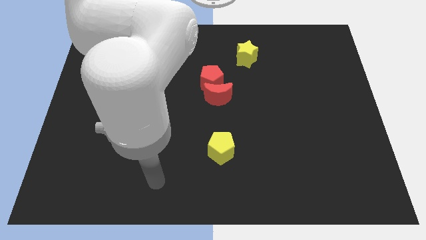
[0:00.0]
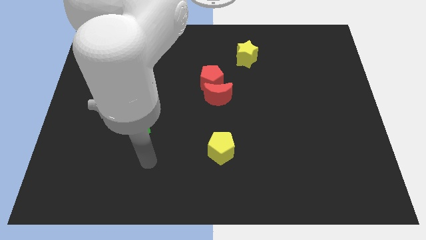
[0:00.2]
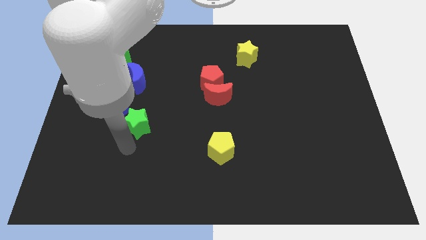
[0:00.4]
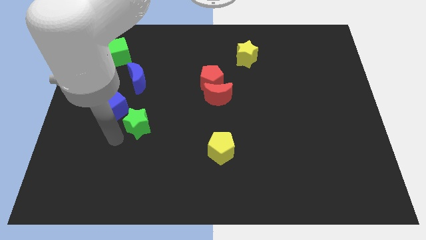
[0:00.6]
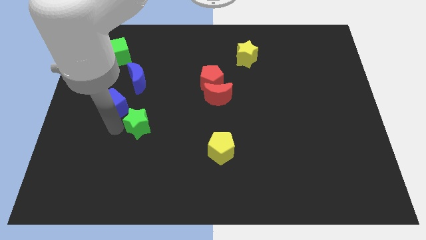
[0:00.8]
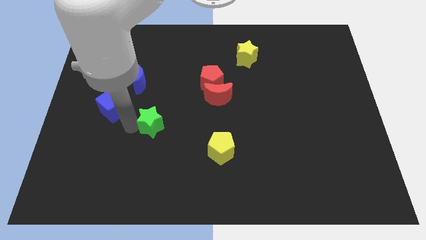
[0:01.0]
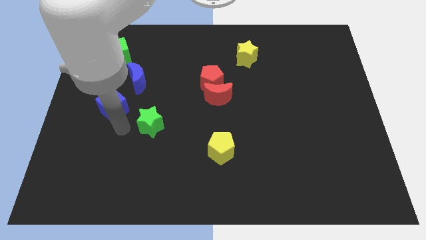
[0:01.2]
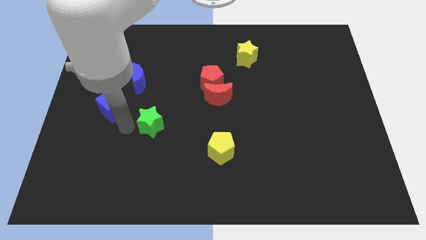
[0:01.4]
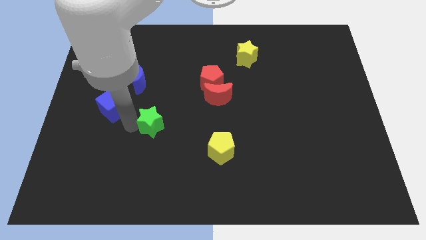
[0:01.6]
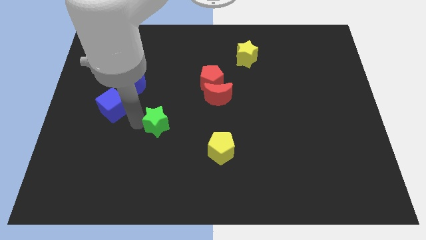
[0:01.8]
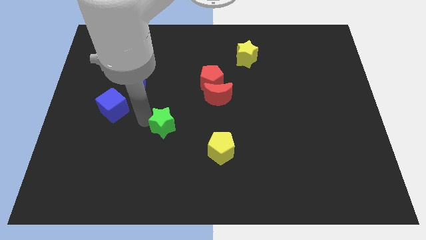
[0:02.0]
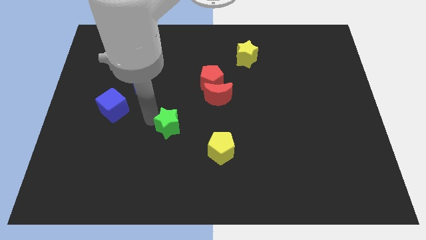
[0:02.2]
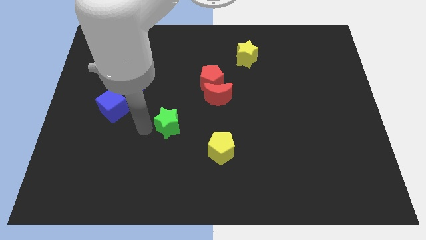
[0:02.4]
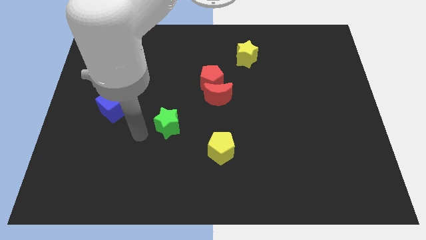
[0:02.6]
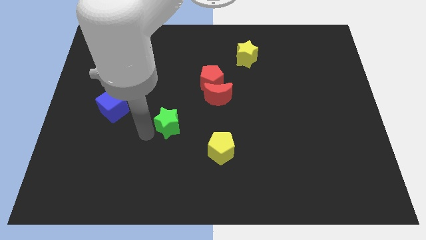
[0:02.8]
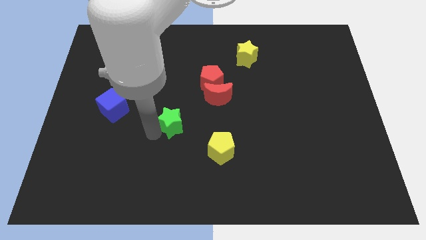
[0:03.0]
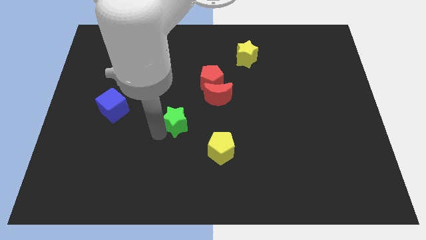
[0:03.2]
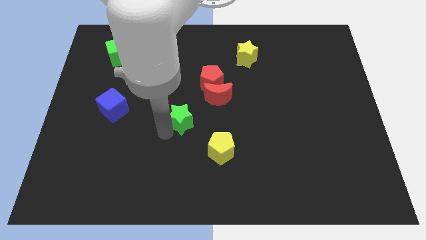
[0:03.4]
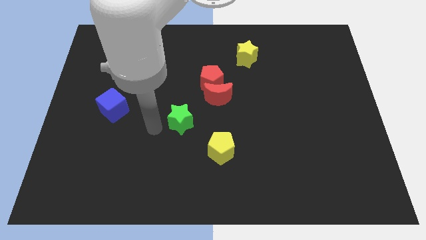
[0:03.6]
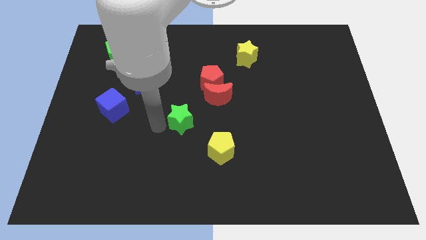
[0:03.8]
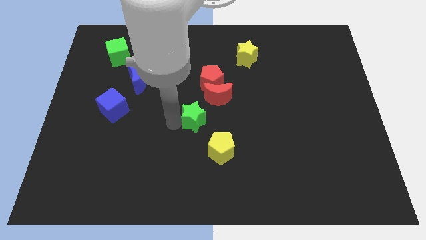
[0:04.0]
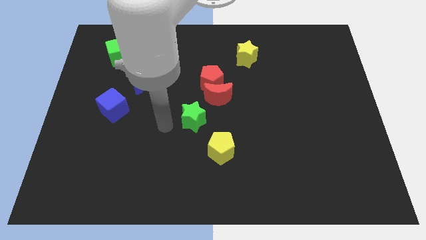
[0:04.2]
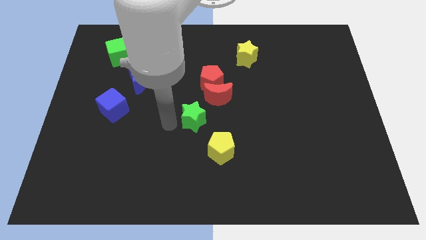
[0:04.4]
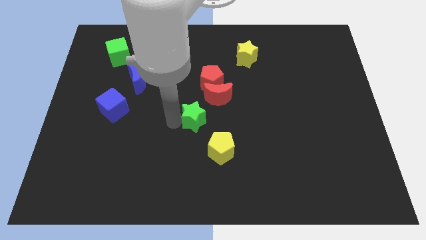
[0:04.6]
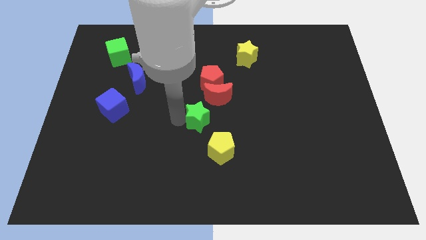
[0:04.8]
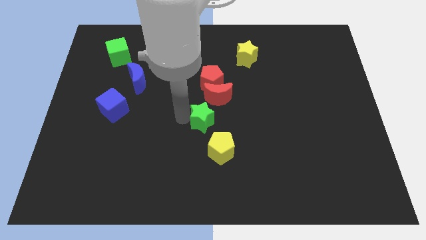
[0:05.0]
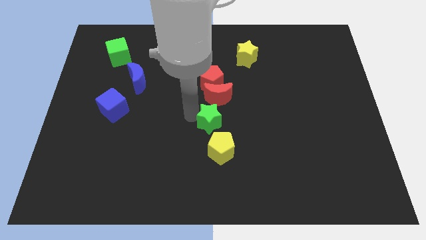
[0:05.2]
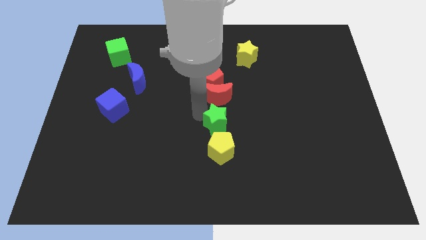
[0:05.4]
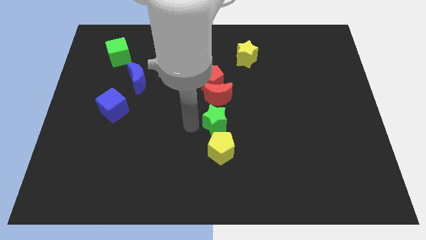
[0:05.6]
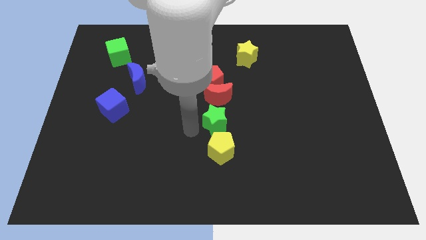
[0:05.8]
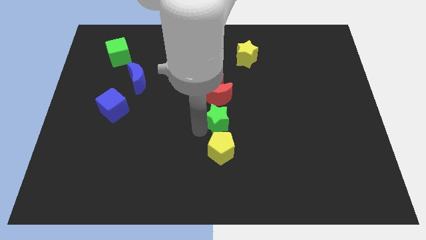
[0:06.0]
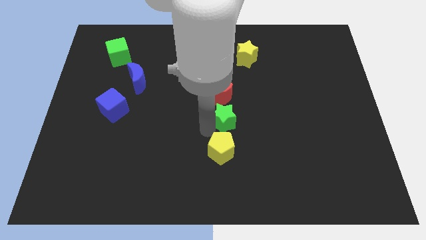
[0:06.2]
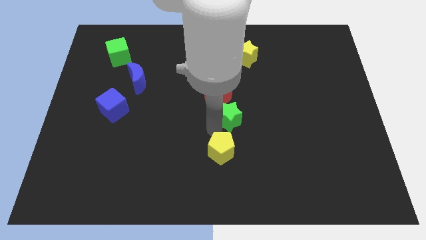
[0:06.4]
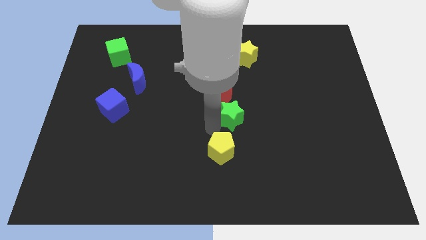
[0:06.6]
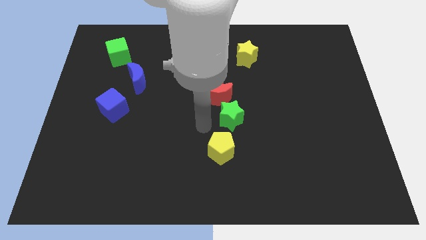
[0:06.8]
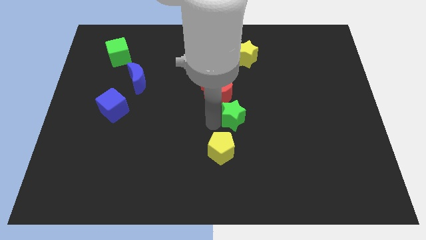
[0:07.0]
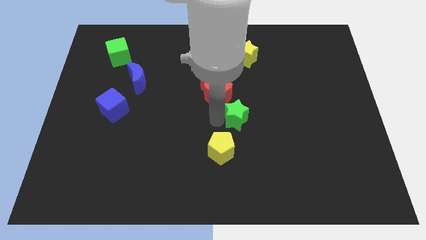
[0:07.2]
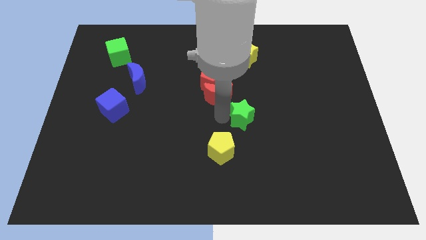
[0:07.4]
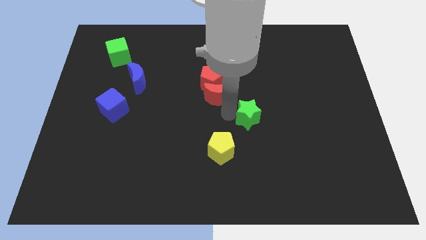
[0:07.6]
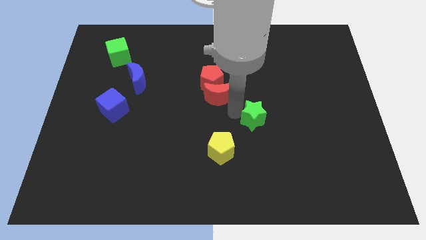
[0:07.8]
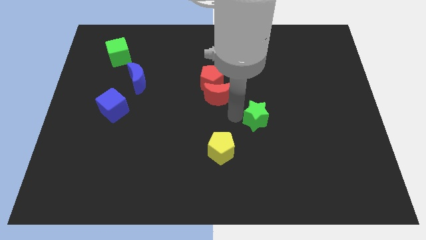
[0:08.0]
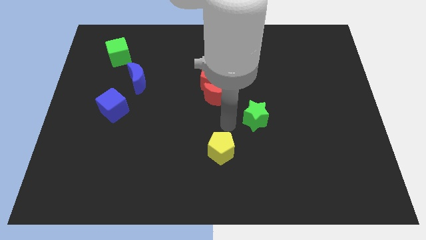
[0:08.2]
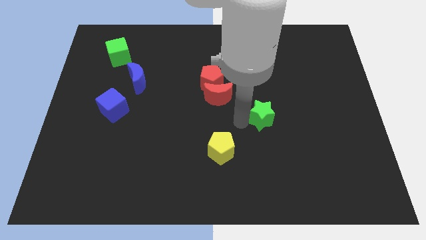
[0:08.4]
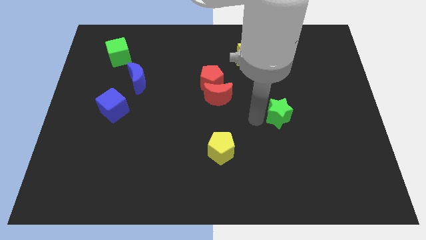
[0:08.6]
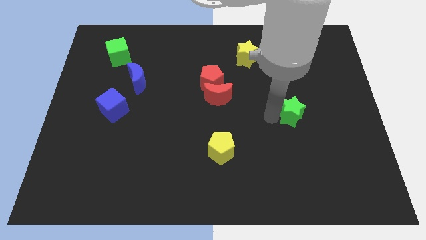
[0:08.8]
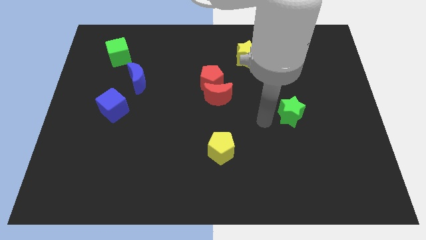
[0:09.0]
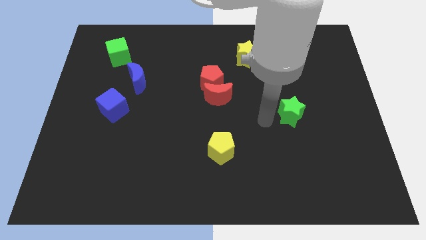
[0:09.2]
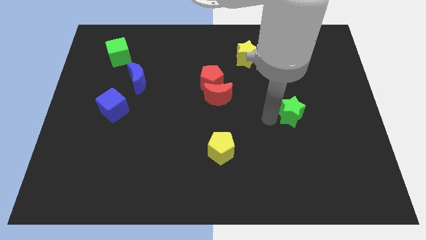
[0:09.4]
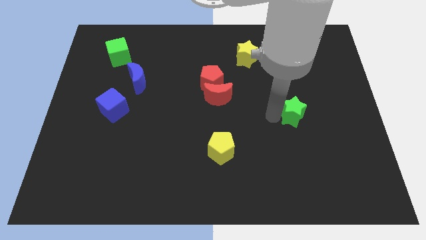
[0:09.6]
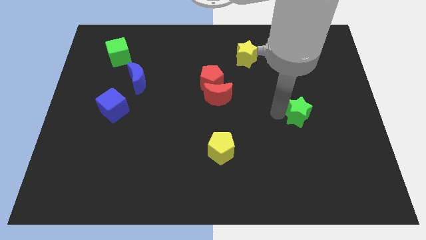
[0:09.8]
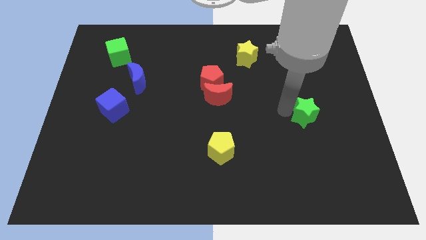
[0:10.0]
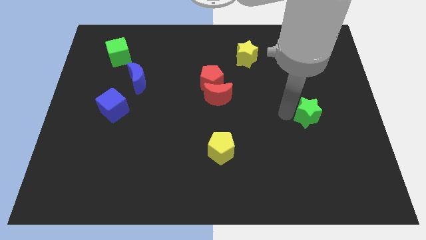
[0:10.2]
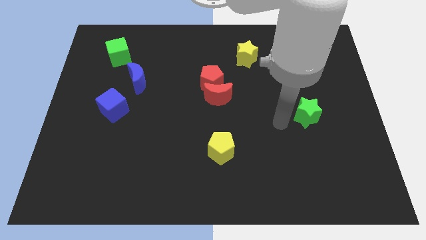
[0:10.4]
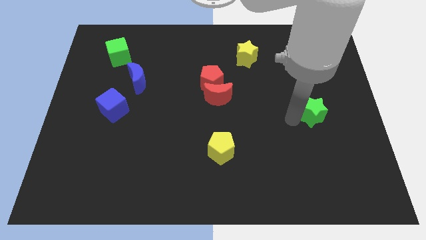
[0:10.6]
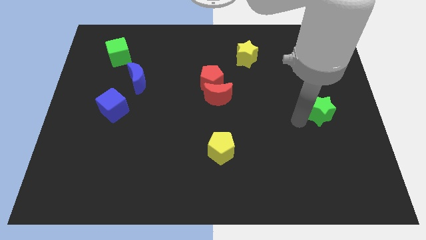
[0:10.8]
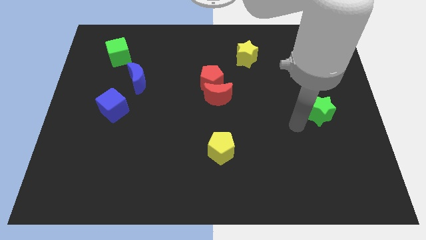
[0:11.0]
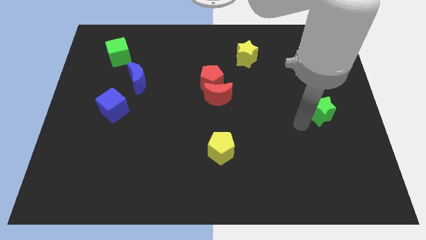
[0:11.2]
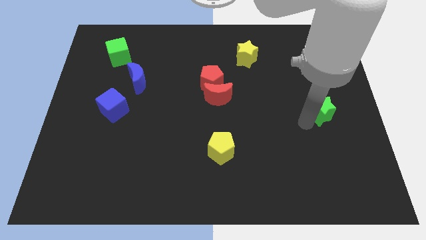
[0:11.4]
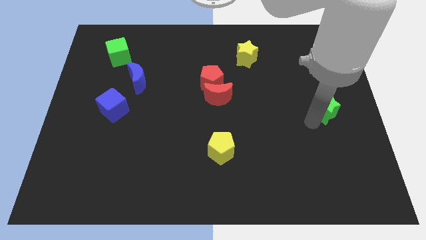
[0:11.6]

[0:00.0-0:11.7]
slide the green star to the right side

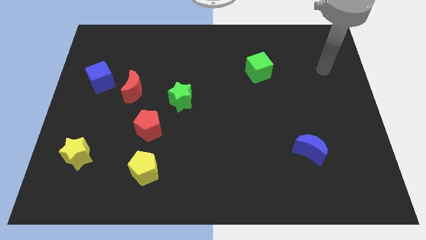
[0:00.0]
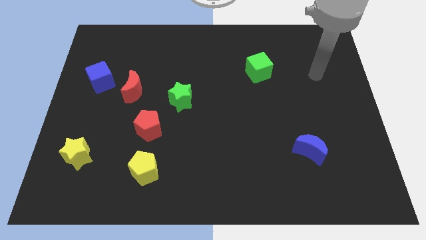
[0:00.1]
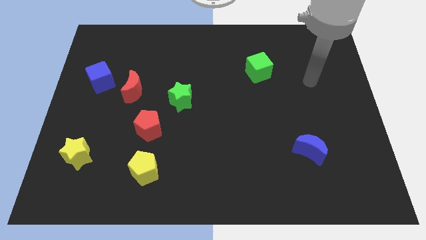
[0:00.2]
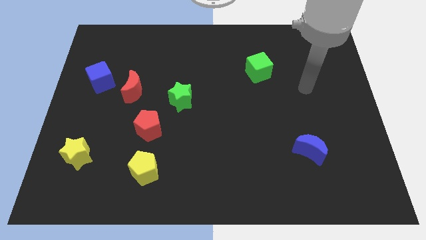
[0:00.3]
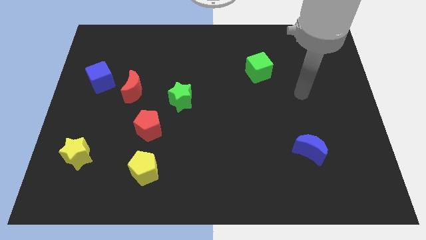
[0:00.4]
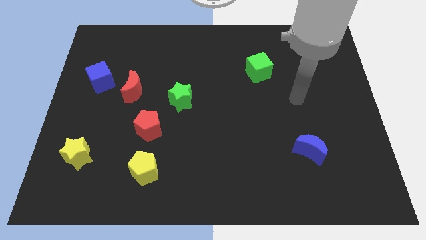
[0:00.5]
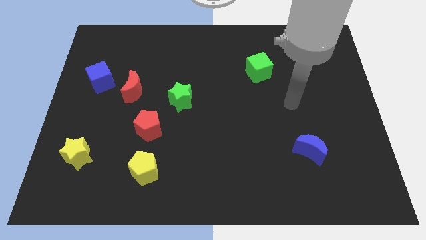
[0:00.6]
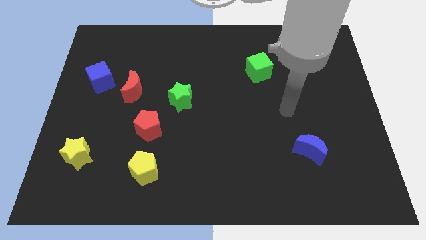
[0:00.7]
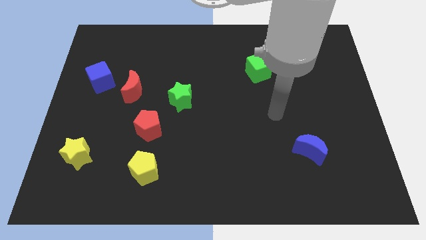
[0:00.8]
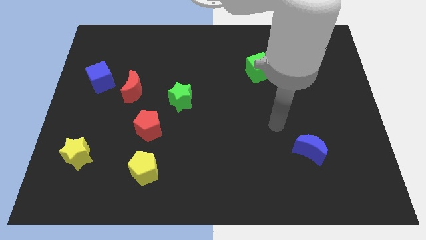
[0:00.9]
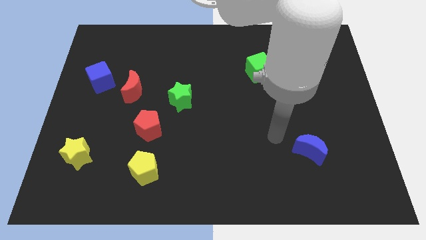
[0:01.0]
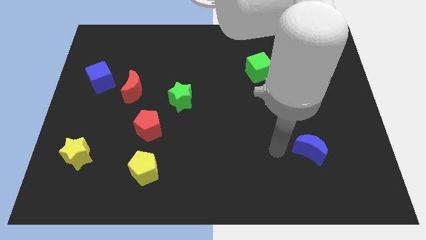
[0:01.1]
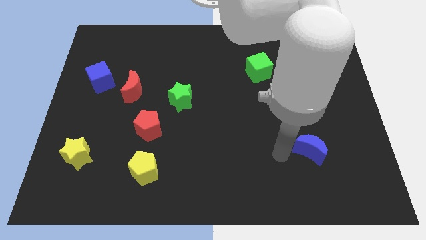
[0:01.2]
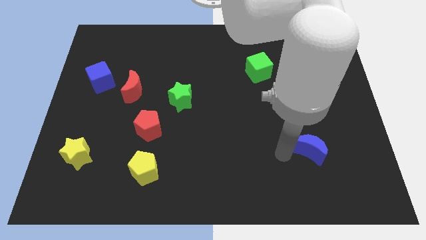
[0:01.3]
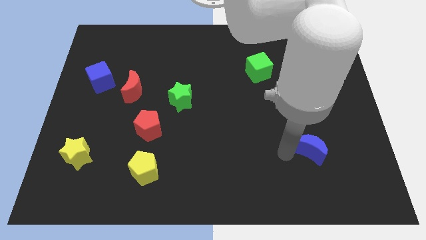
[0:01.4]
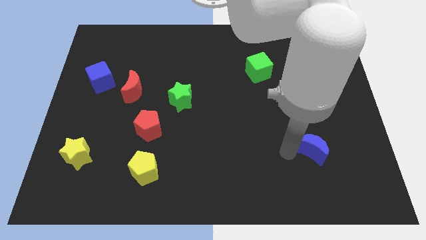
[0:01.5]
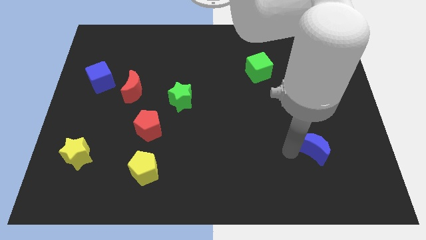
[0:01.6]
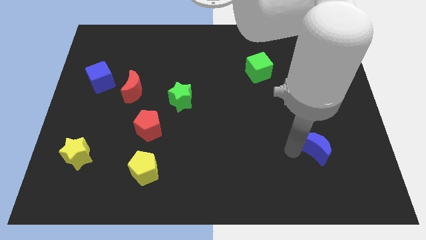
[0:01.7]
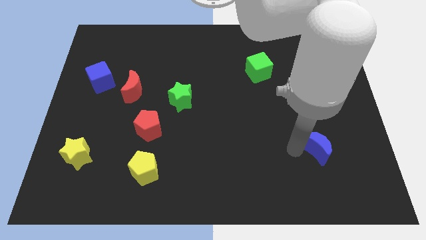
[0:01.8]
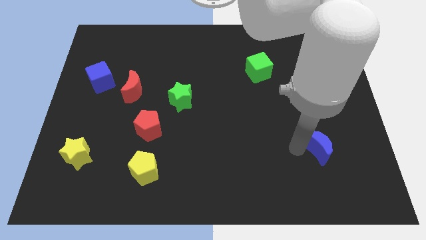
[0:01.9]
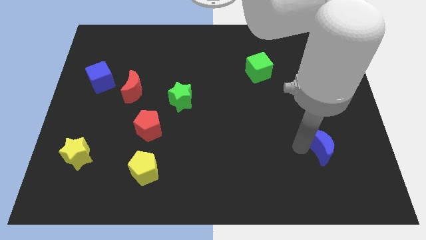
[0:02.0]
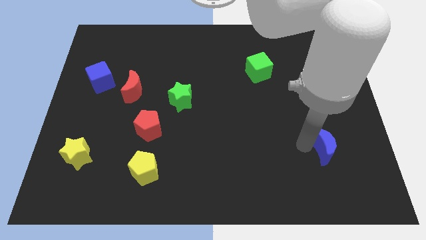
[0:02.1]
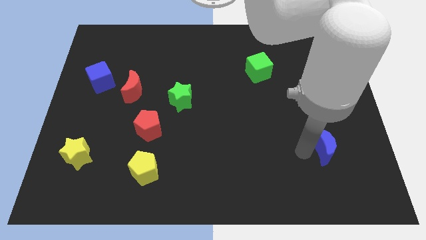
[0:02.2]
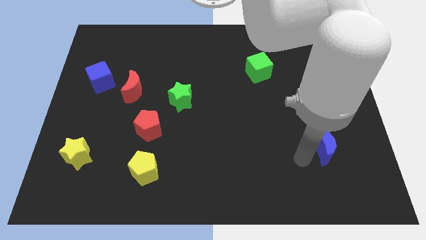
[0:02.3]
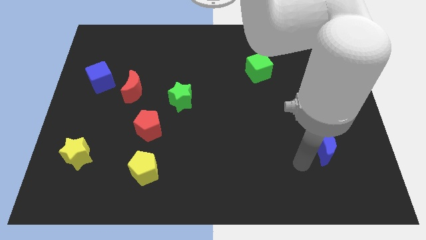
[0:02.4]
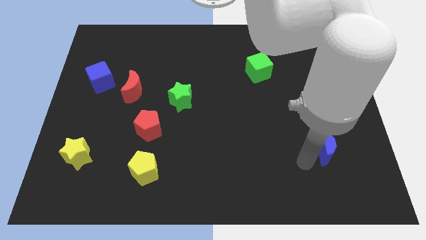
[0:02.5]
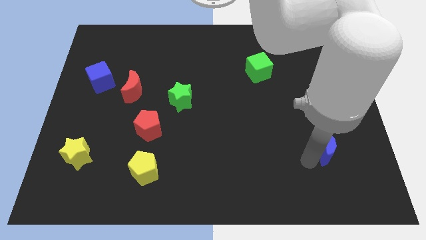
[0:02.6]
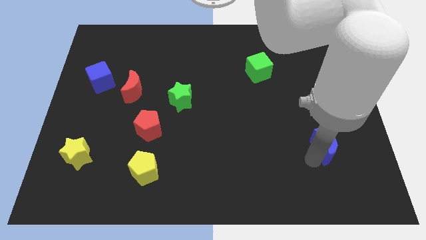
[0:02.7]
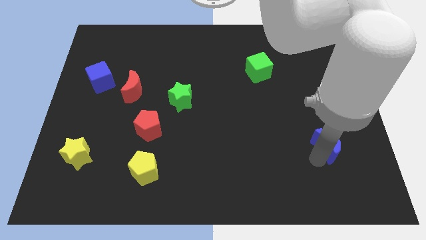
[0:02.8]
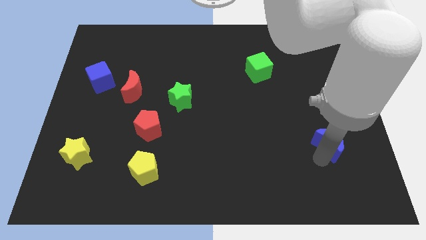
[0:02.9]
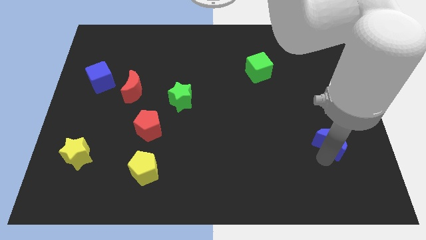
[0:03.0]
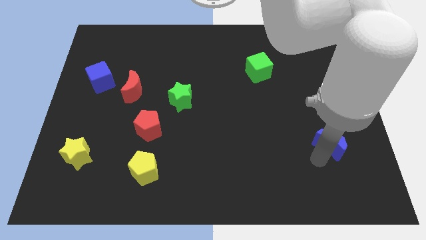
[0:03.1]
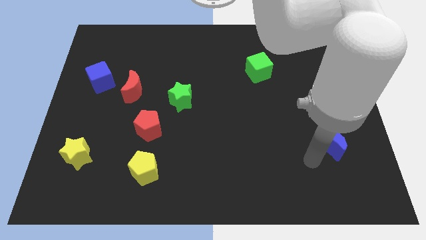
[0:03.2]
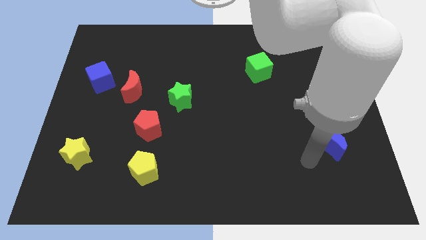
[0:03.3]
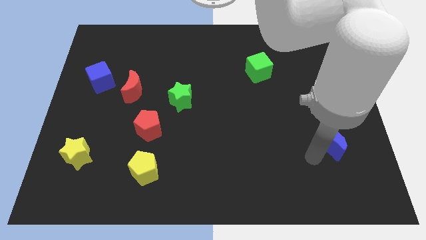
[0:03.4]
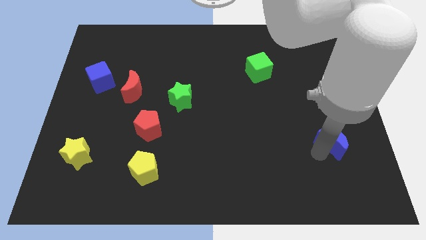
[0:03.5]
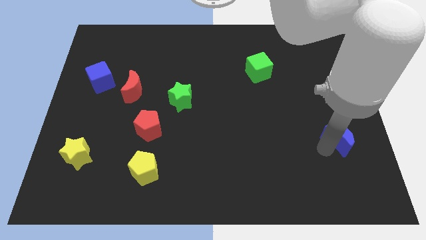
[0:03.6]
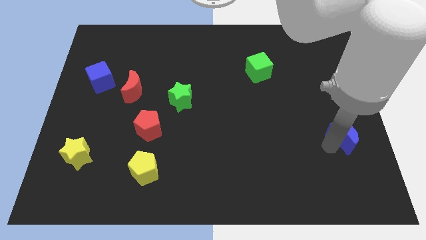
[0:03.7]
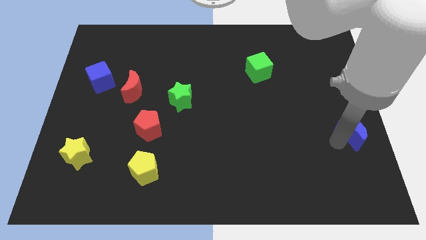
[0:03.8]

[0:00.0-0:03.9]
push the blue moon to the center right
